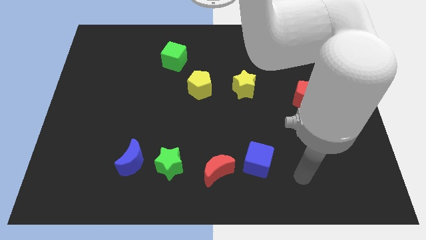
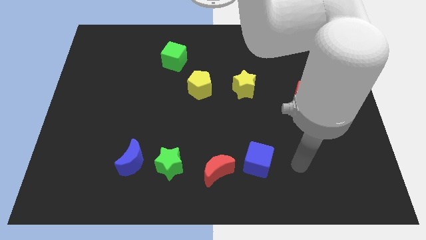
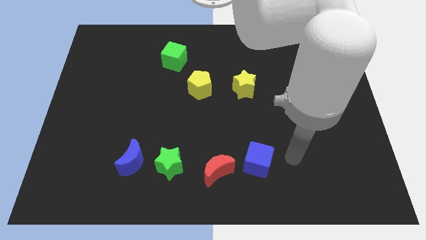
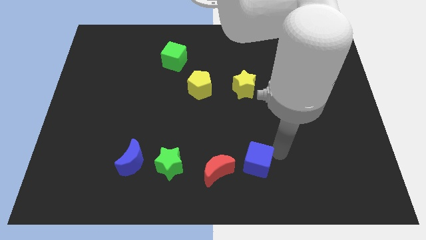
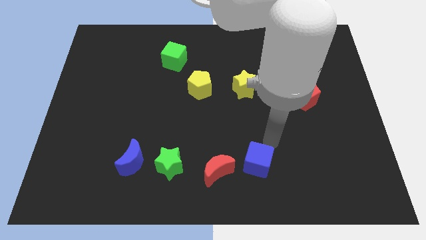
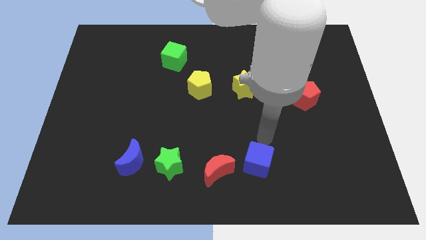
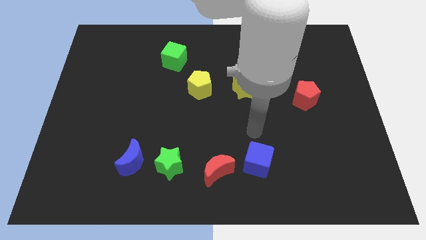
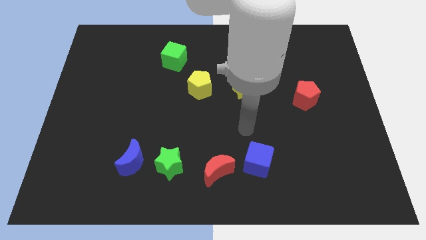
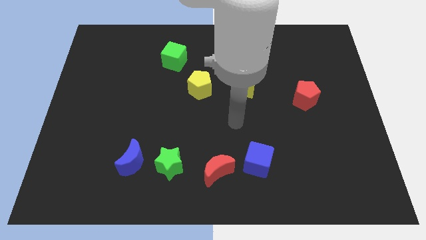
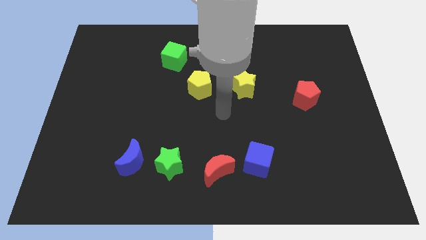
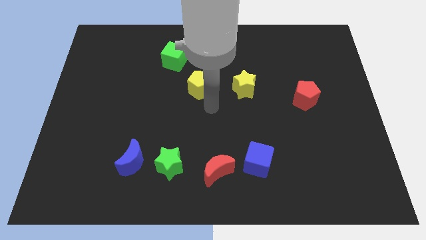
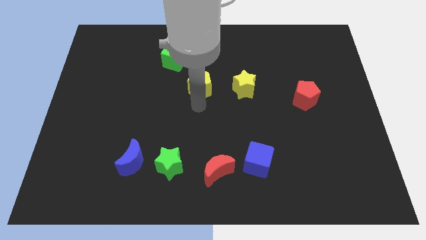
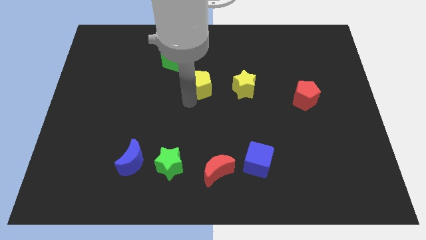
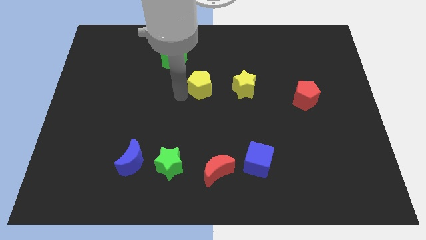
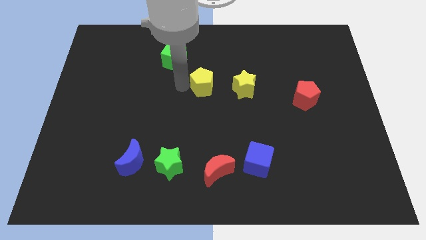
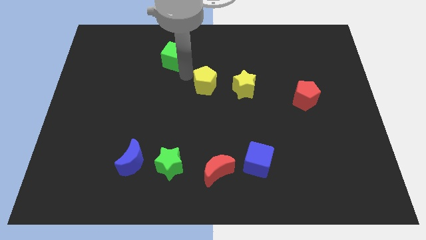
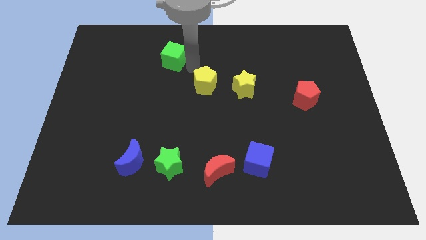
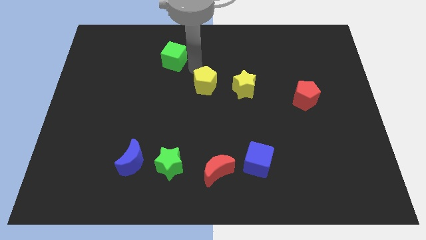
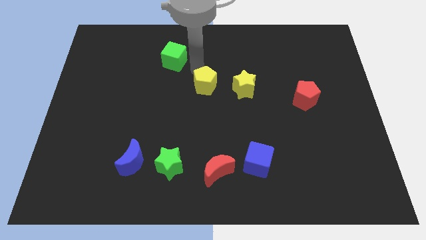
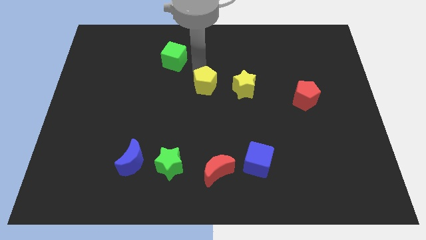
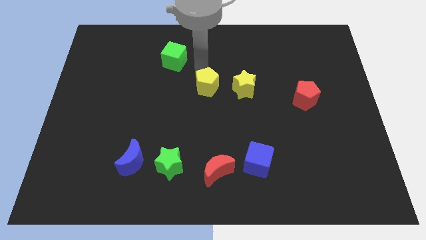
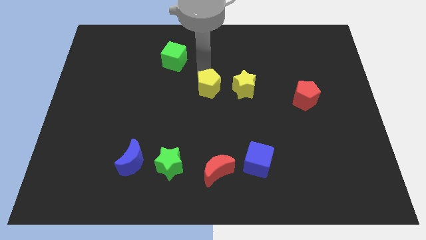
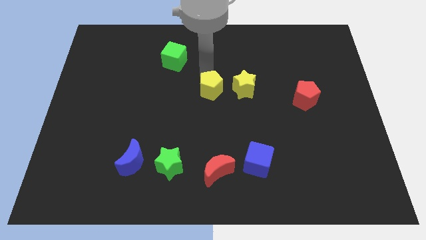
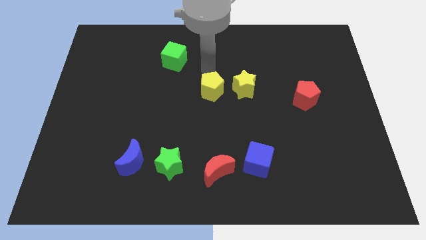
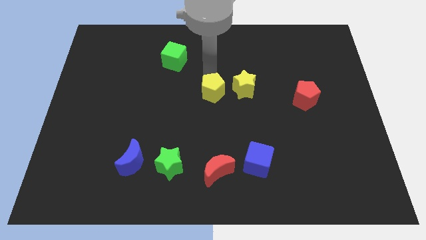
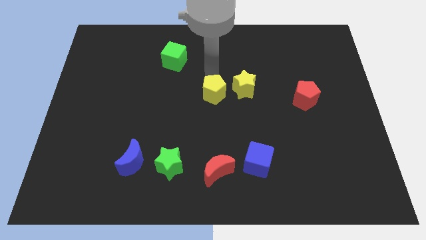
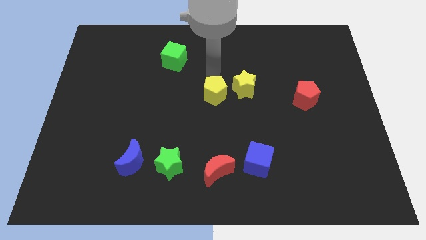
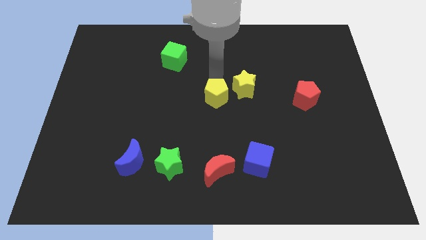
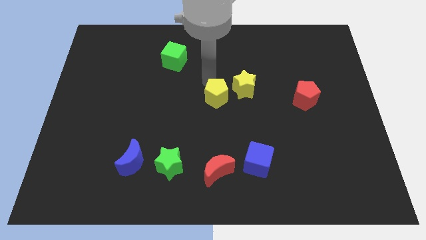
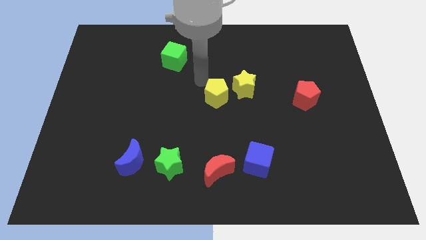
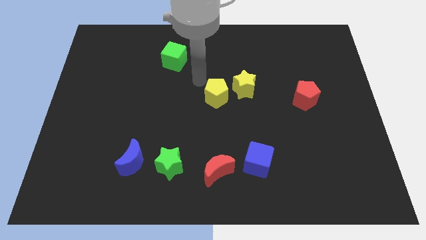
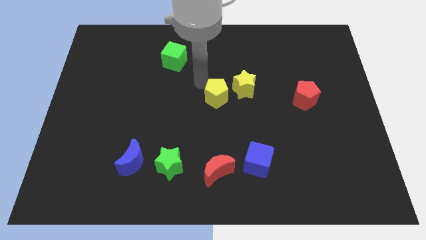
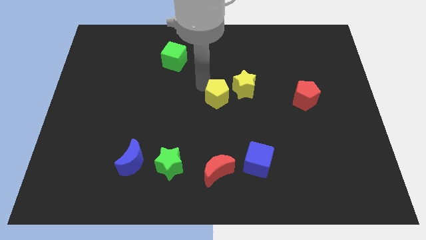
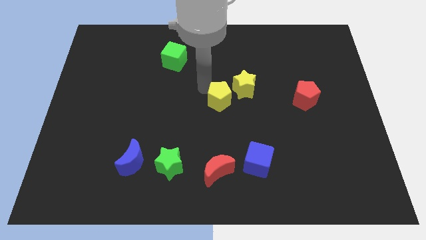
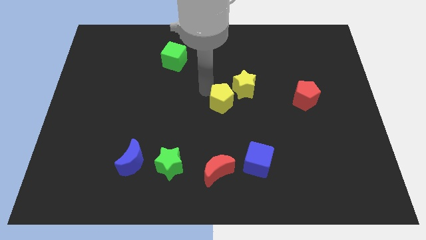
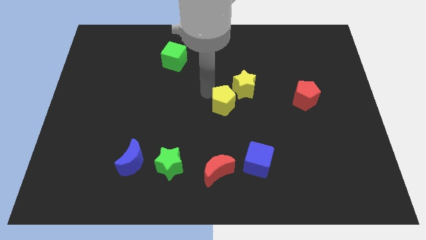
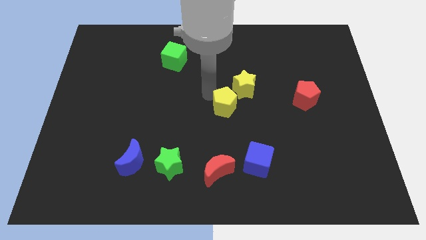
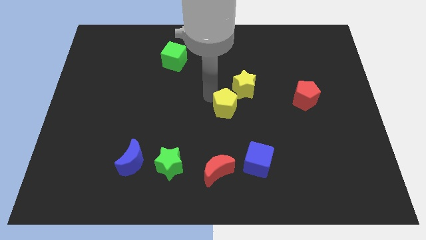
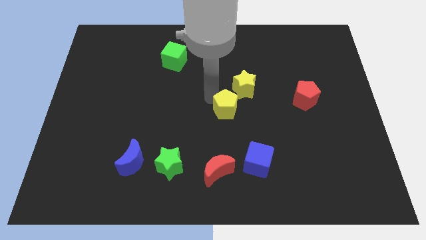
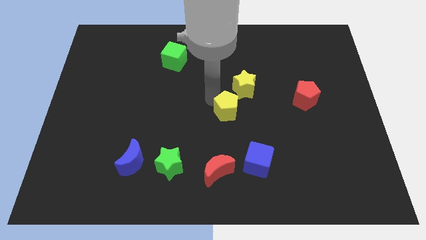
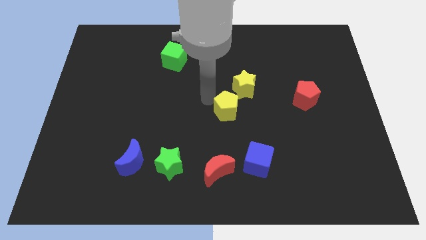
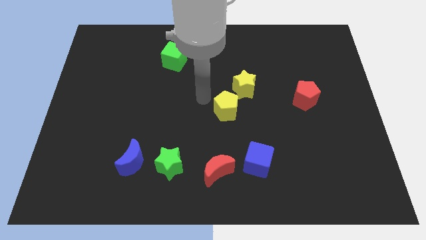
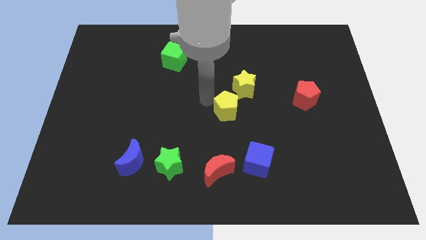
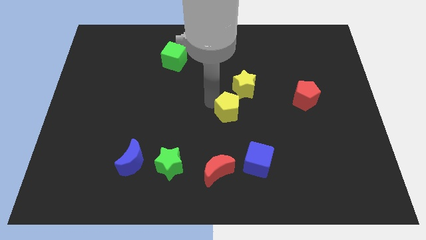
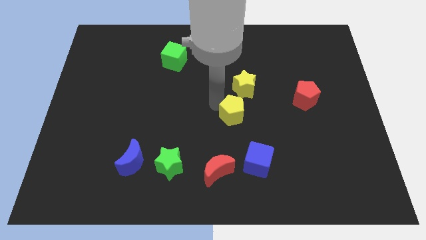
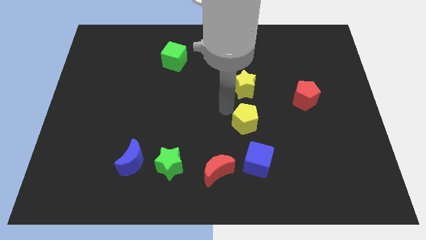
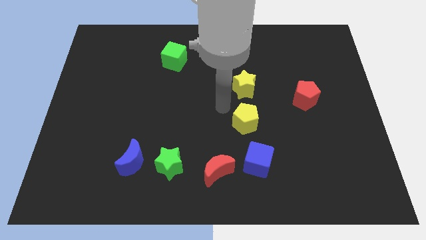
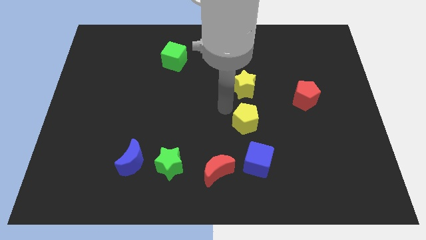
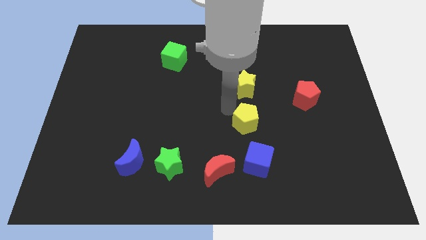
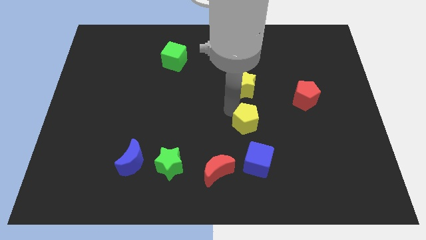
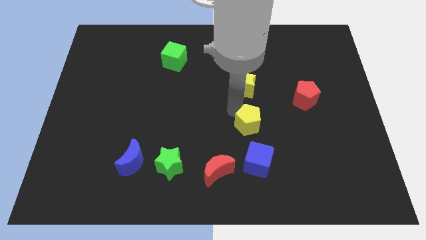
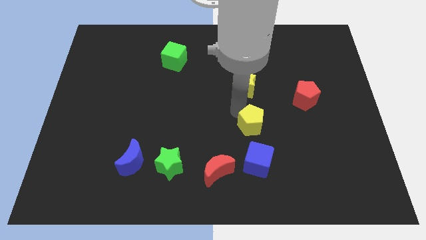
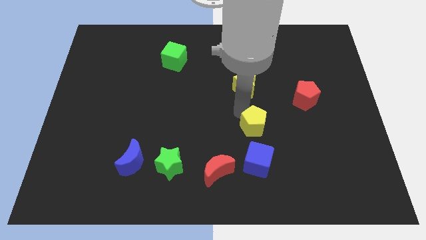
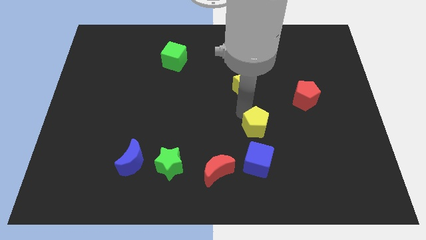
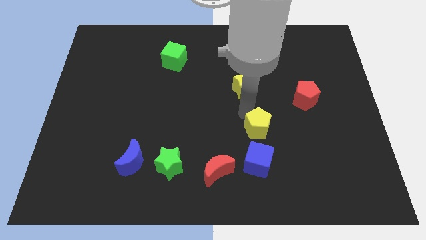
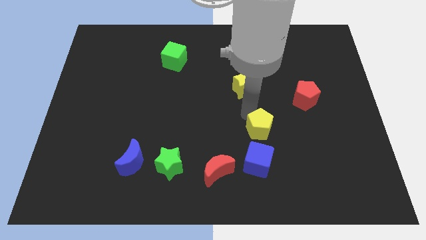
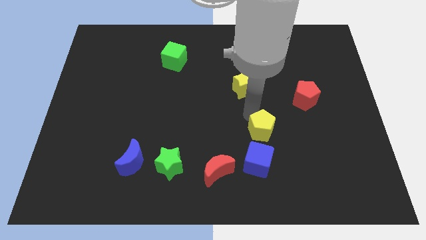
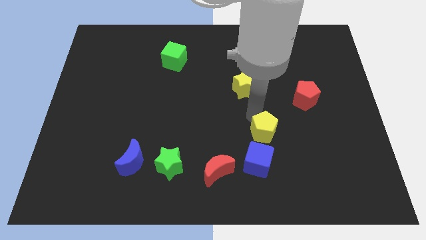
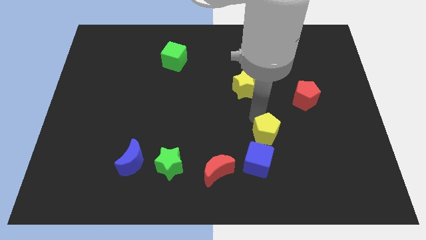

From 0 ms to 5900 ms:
move the yellow pentagon diagonally downwards and right

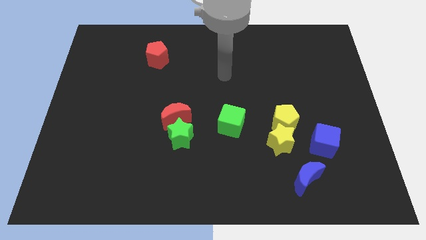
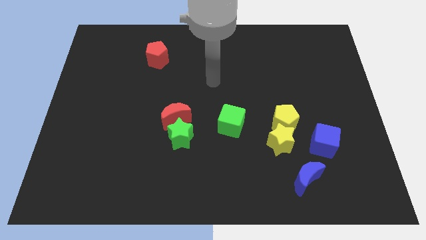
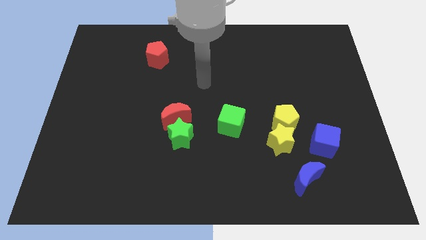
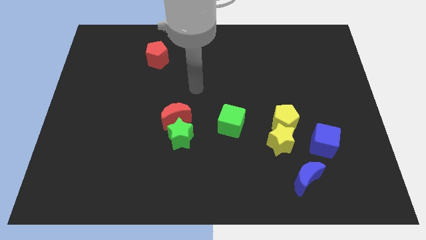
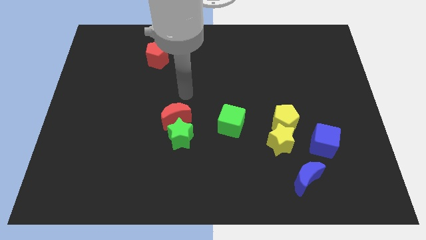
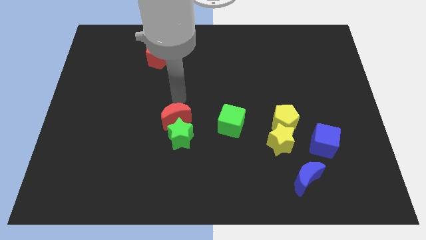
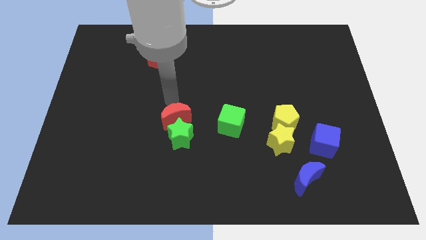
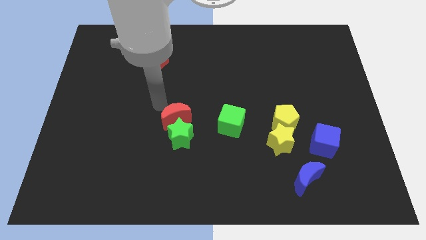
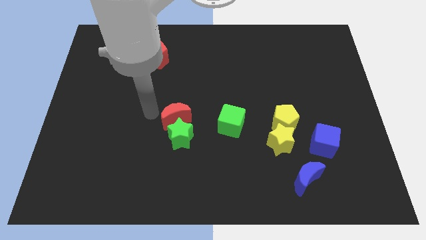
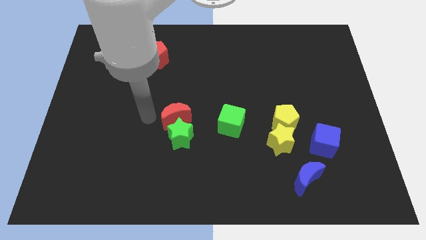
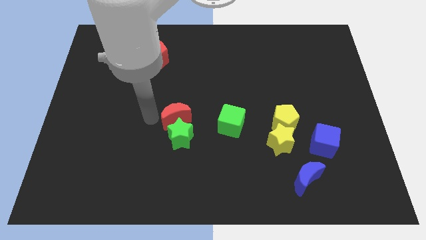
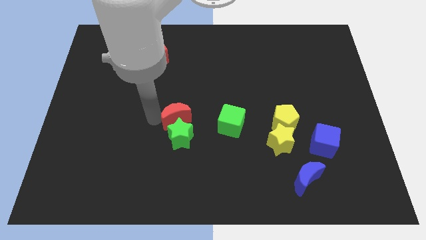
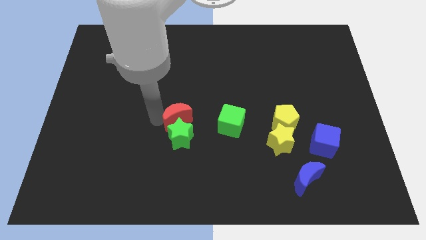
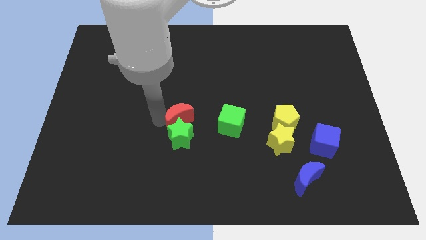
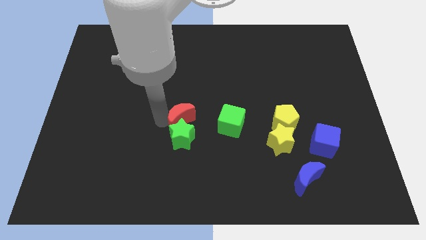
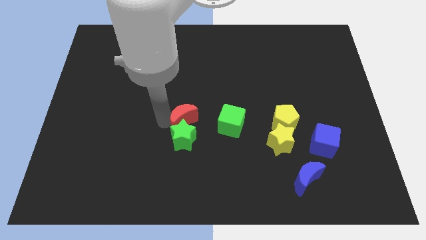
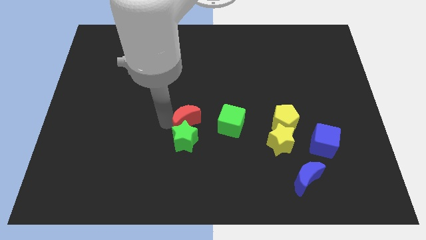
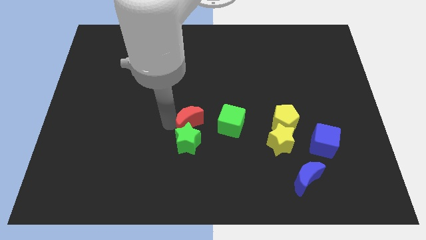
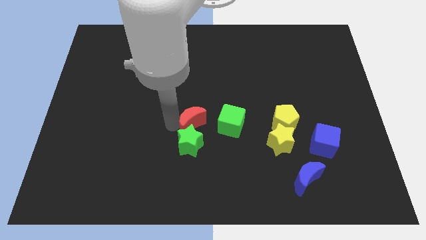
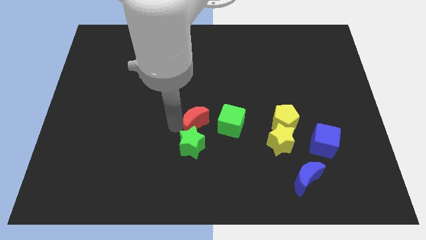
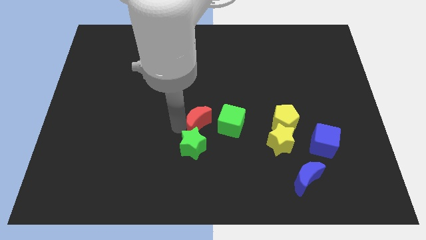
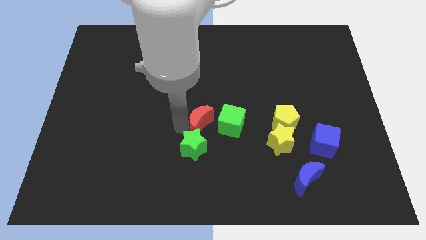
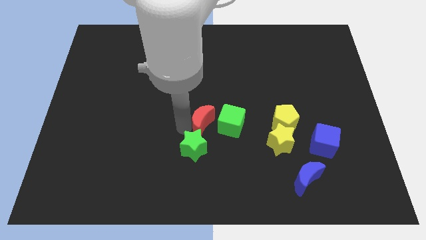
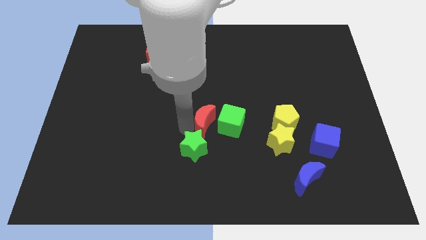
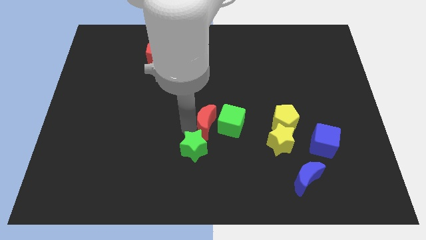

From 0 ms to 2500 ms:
slide the red moon a little right

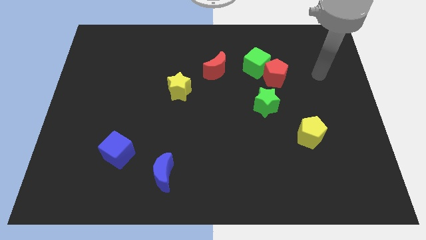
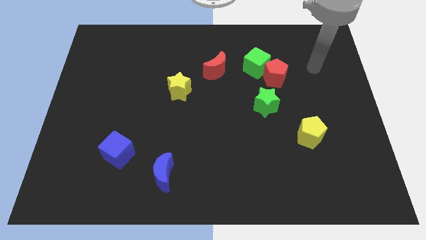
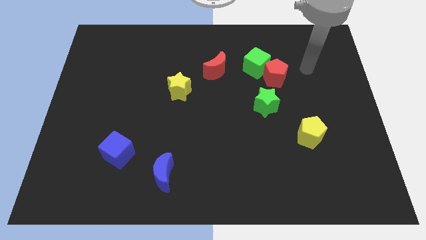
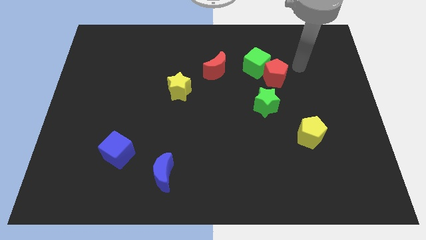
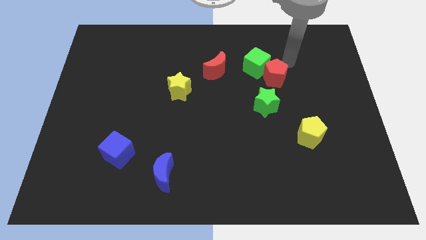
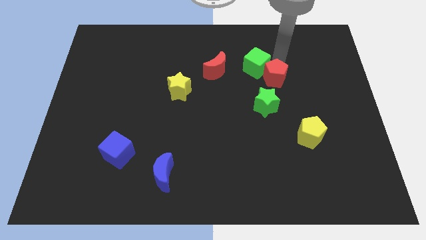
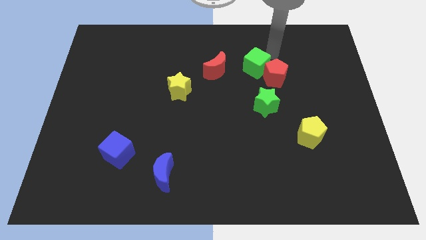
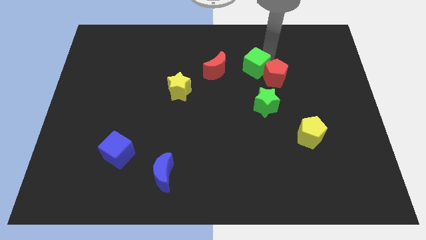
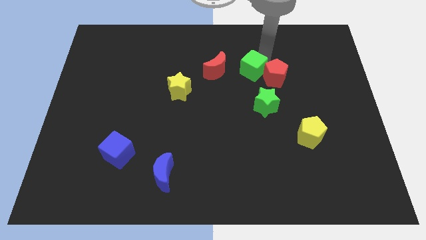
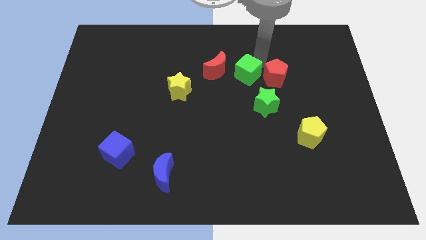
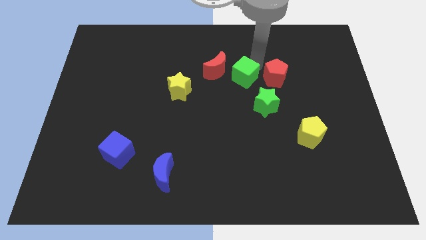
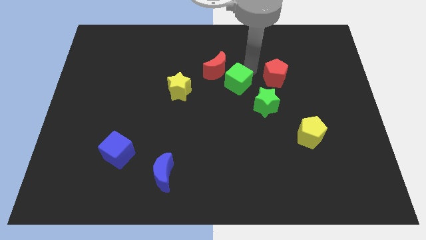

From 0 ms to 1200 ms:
slide the green cube a little diagonally down and left
